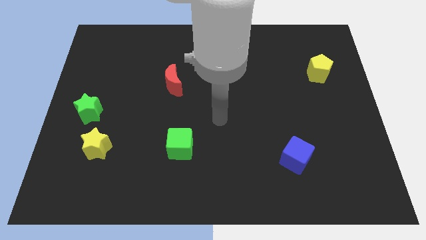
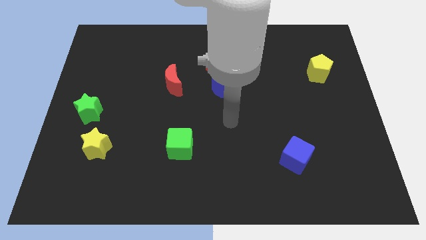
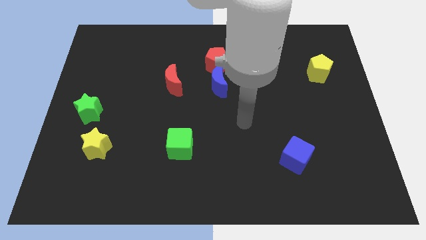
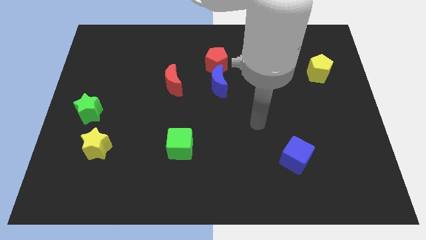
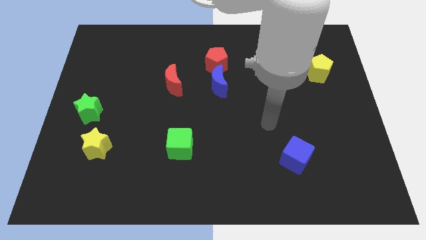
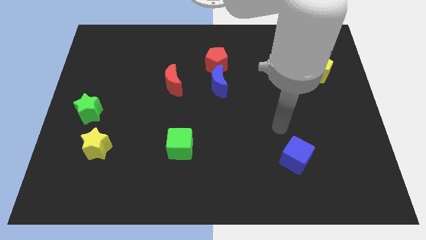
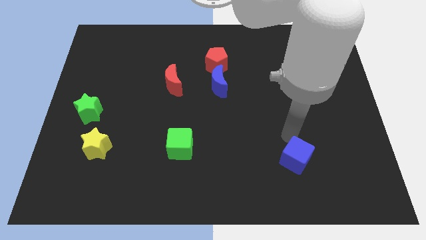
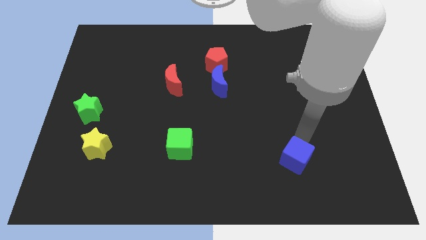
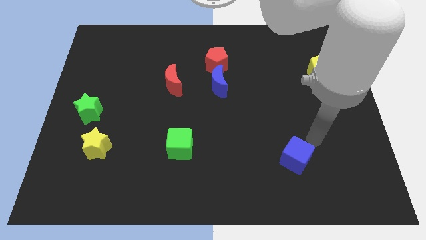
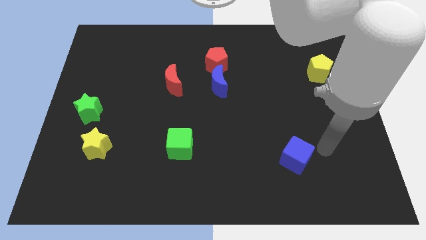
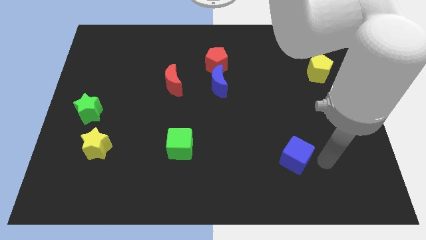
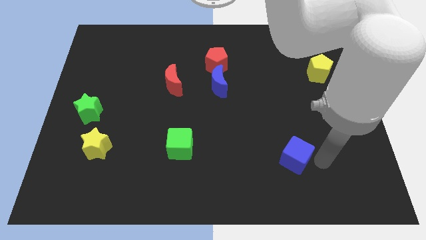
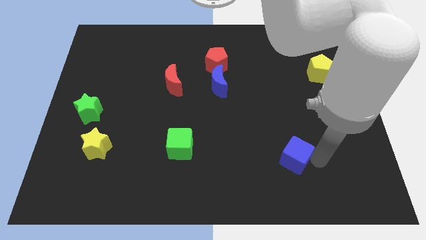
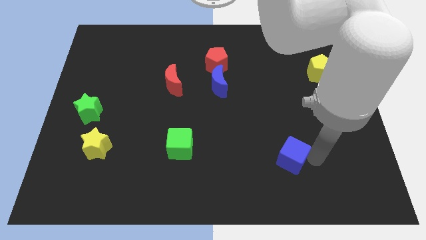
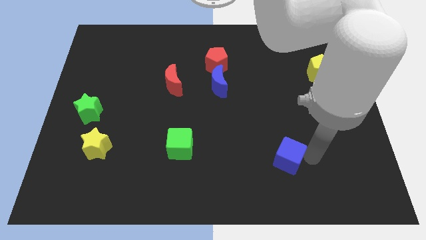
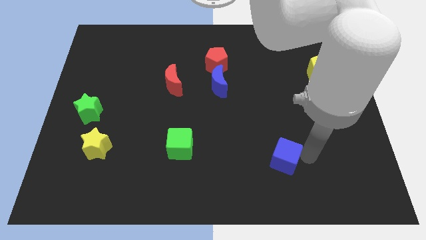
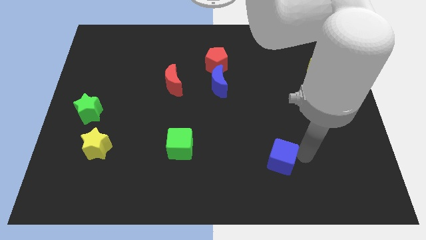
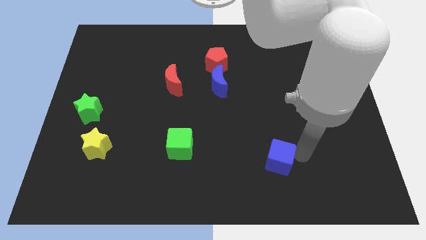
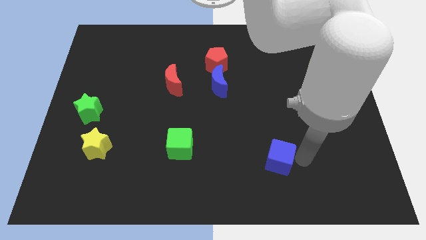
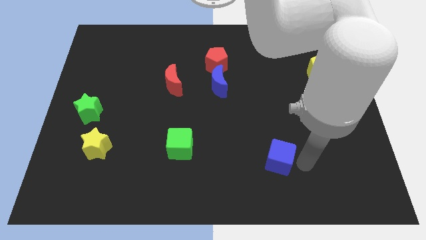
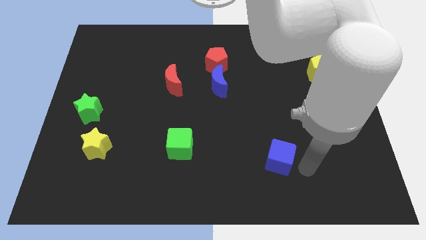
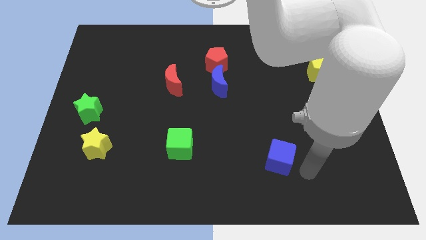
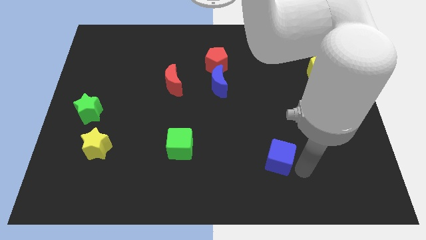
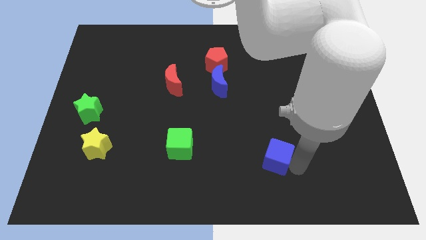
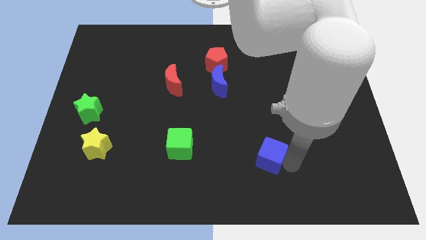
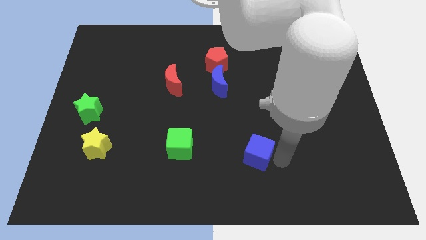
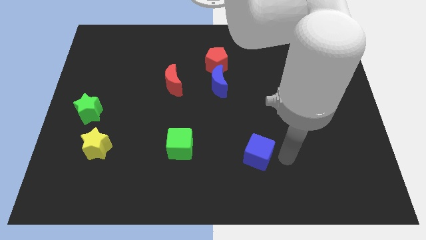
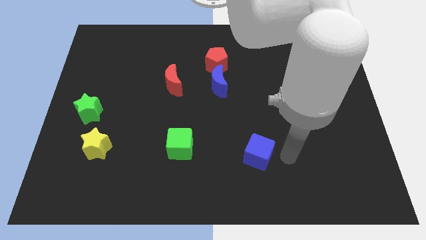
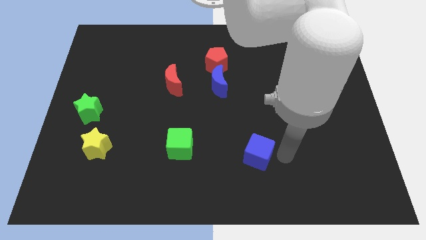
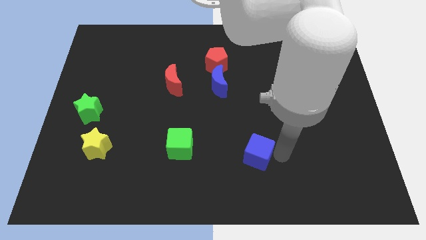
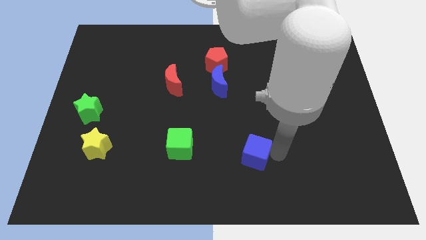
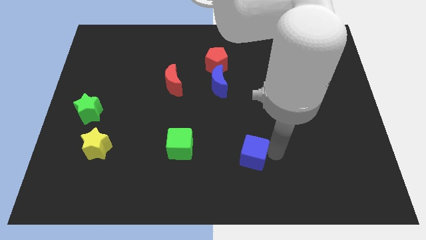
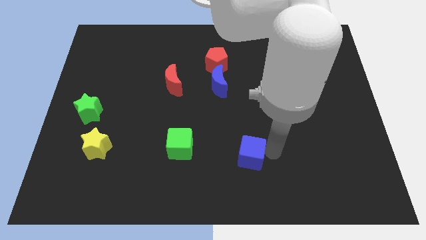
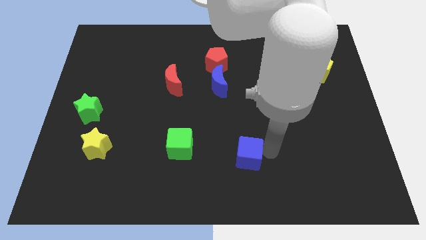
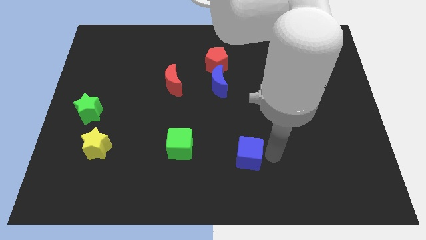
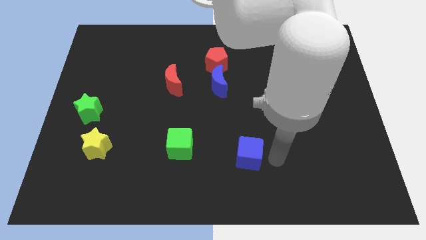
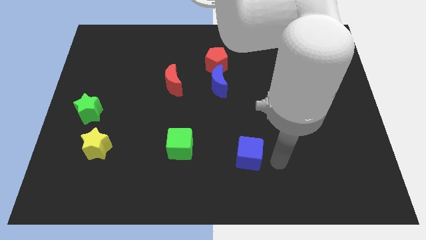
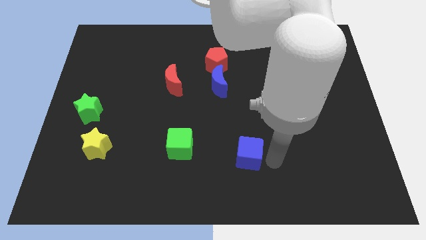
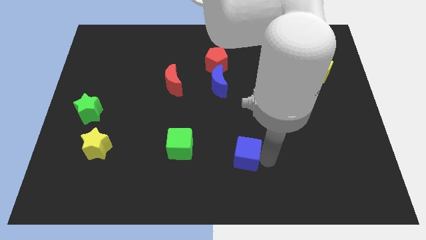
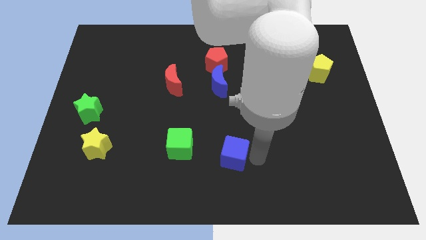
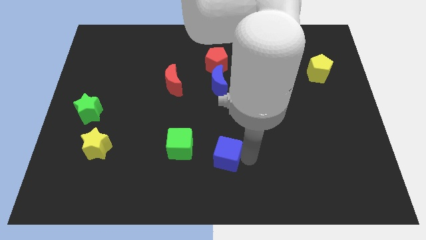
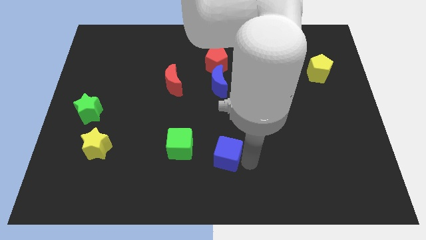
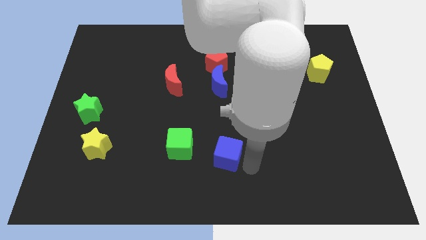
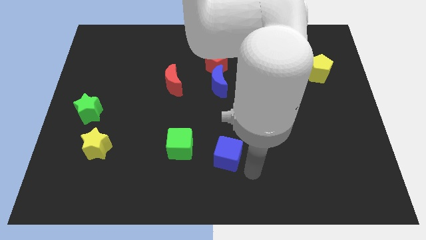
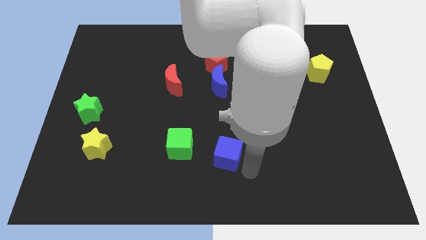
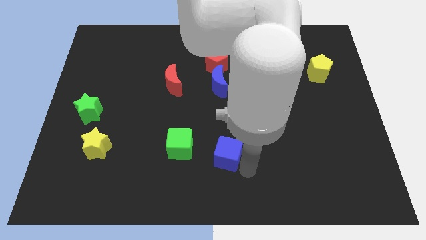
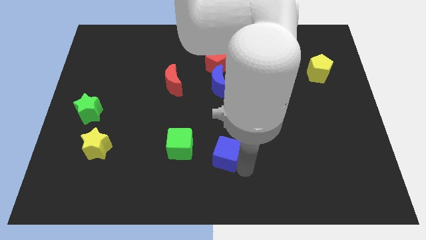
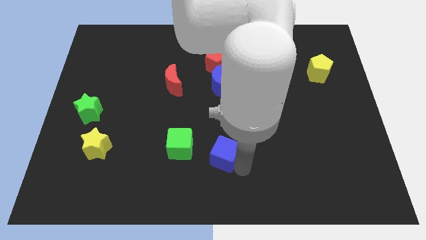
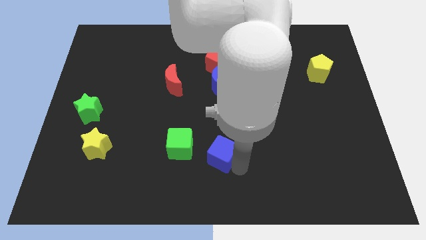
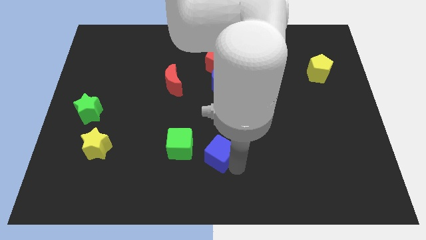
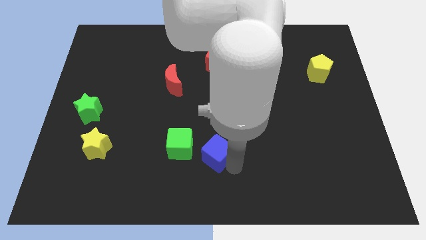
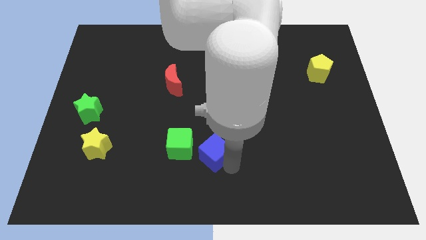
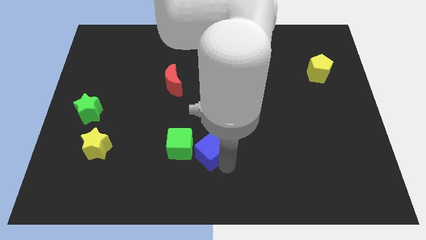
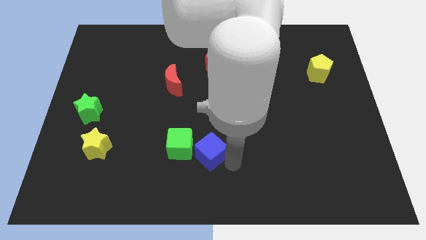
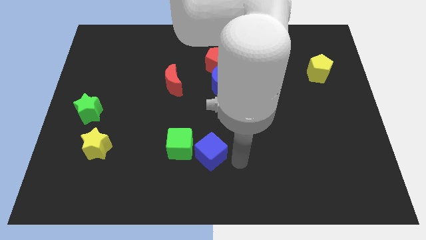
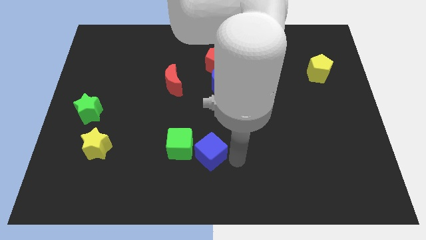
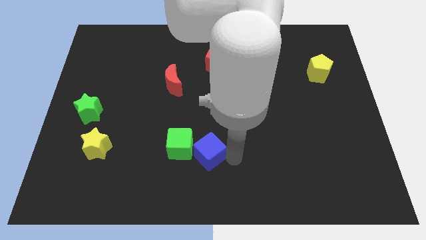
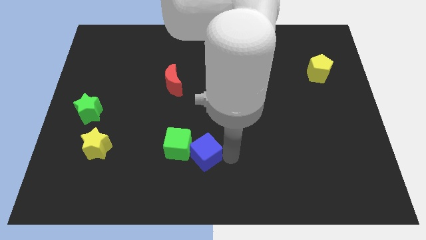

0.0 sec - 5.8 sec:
slide the blue cube close to the green cube

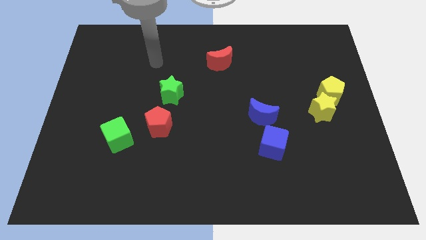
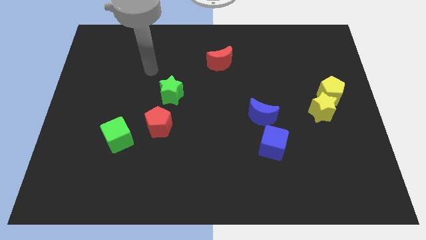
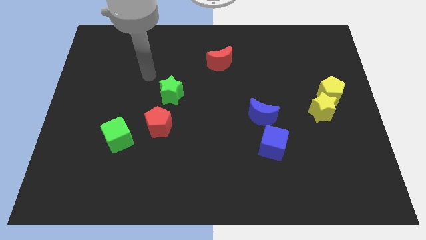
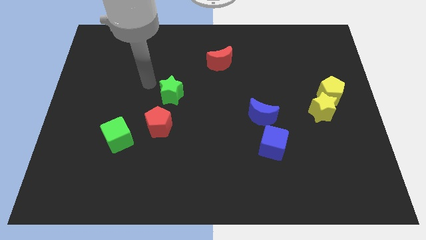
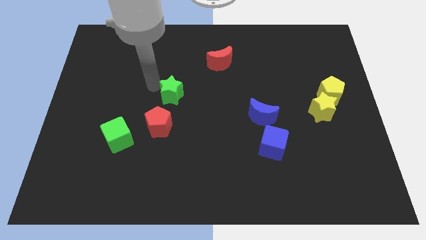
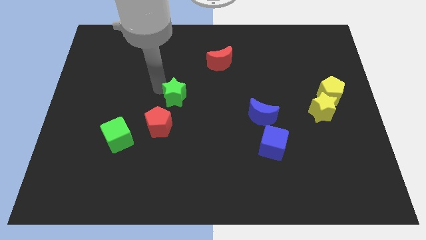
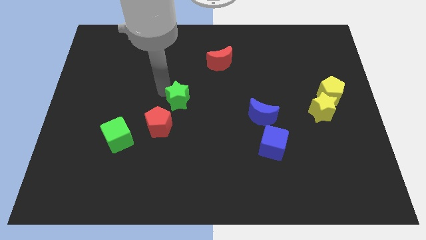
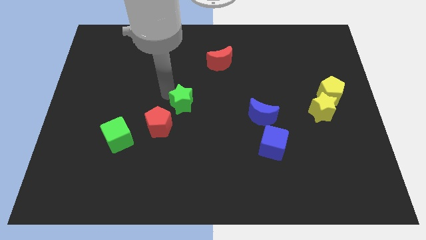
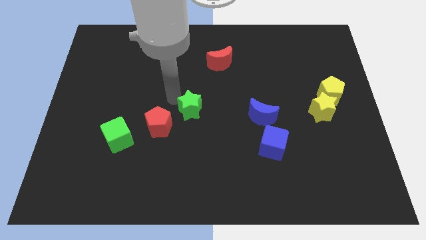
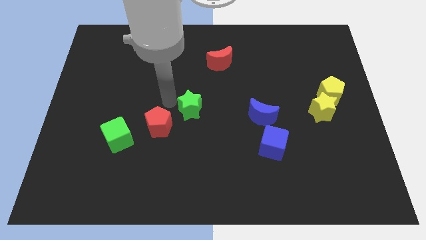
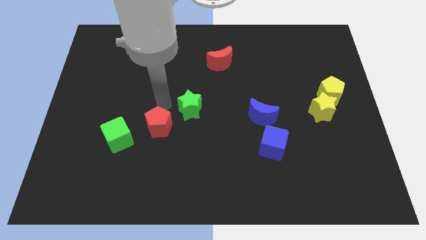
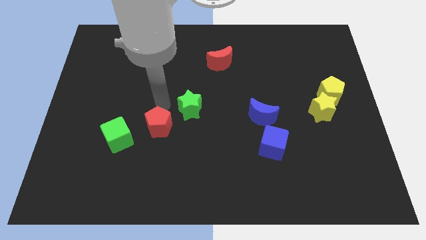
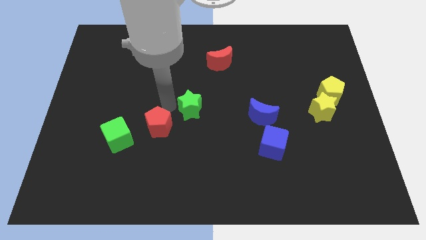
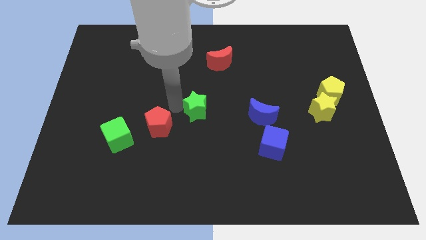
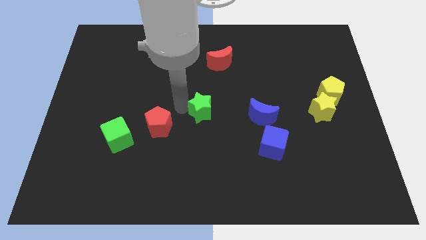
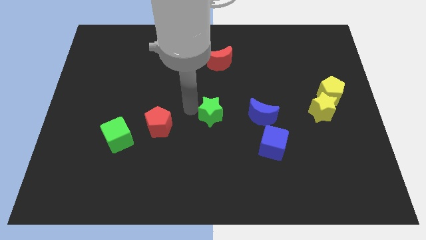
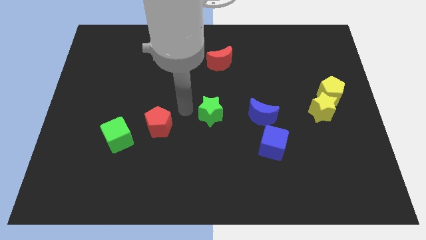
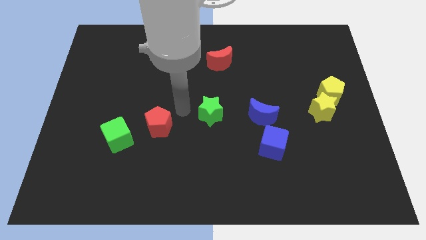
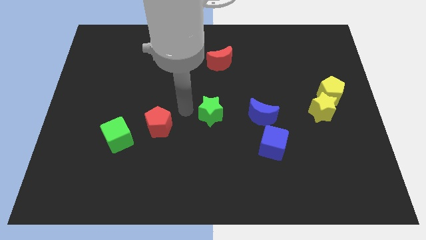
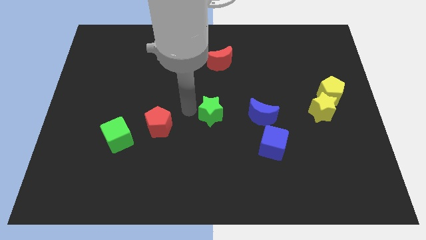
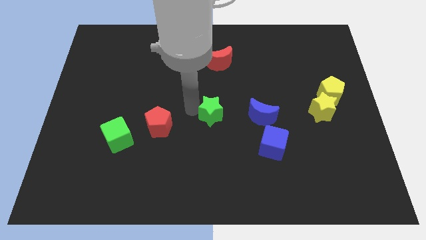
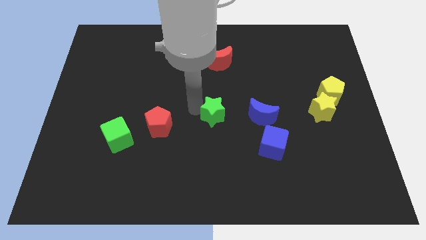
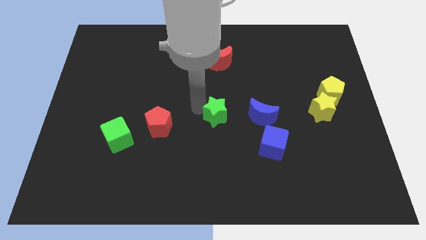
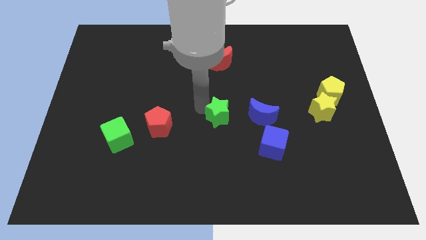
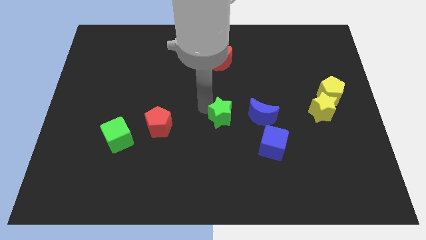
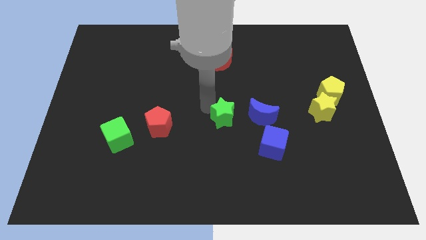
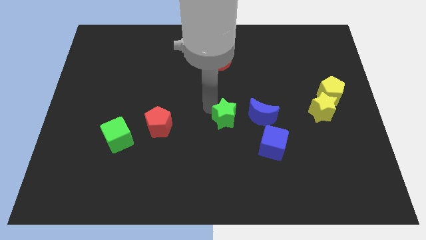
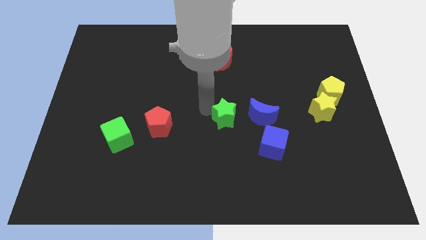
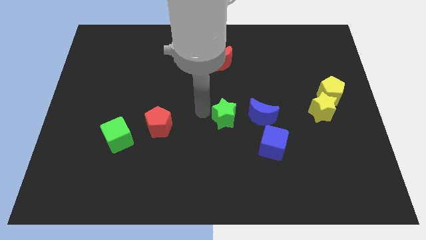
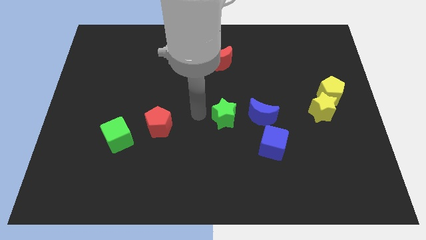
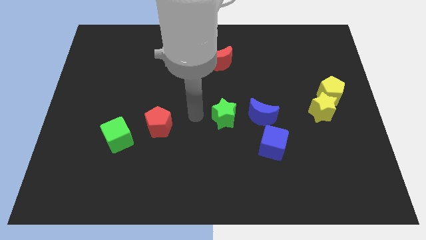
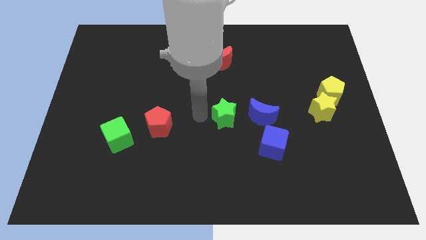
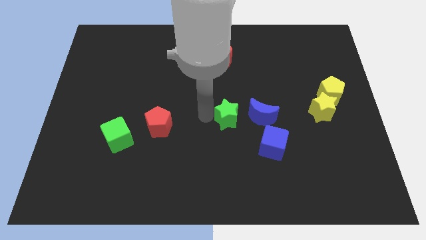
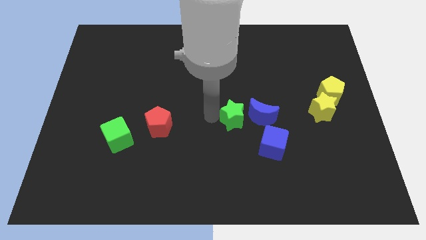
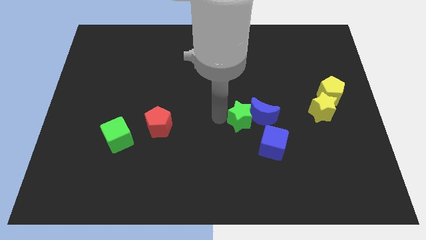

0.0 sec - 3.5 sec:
push the green star towards the blue moon
